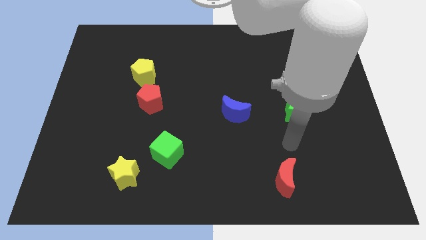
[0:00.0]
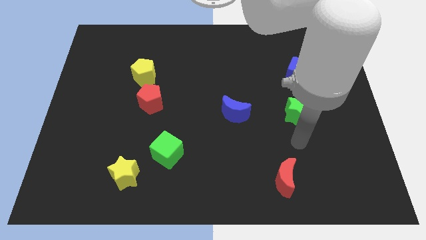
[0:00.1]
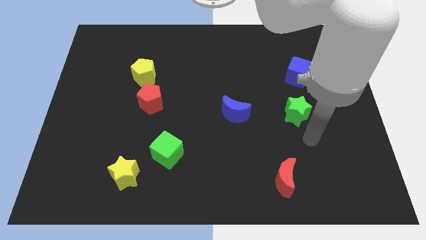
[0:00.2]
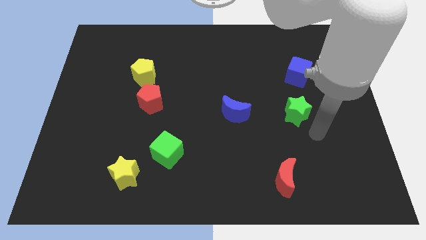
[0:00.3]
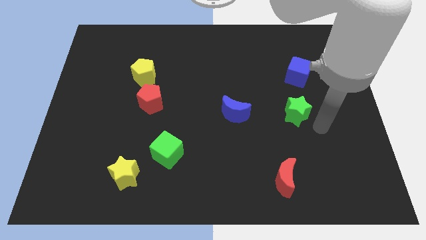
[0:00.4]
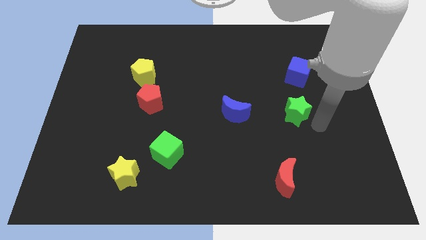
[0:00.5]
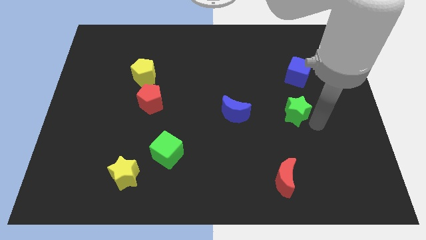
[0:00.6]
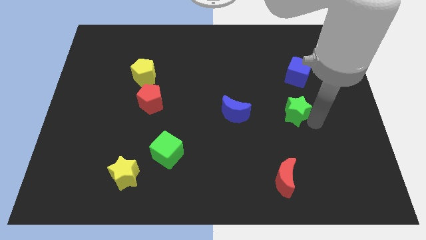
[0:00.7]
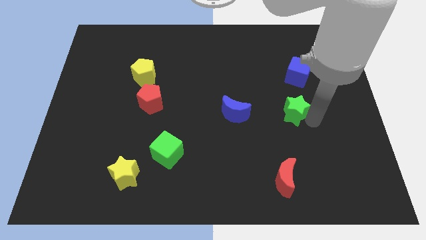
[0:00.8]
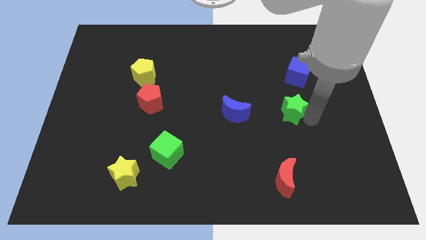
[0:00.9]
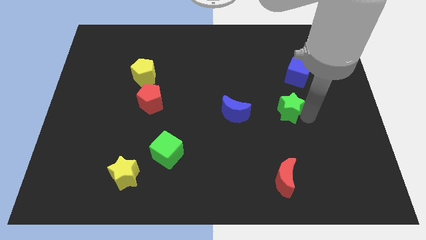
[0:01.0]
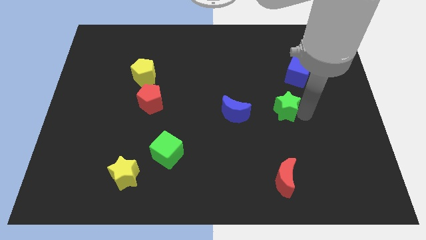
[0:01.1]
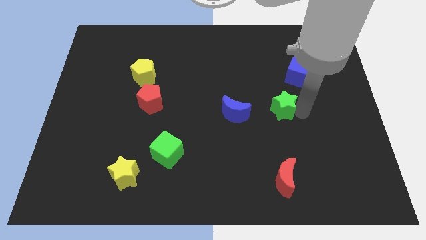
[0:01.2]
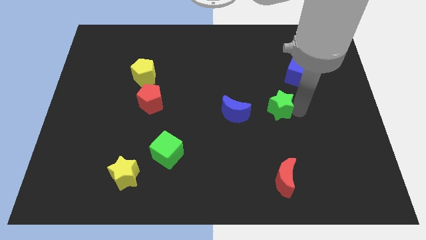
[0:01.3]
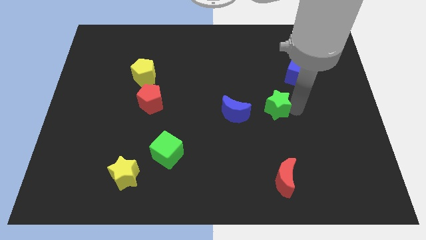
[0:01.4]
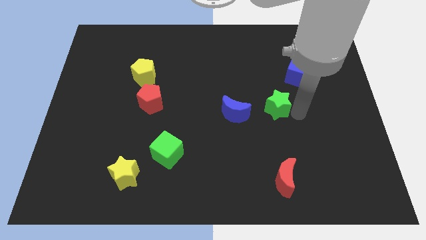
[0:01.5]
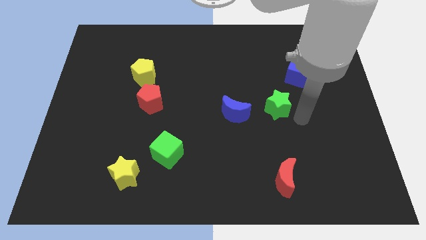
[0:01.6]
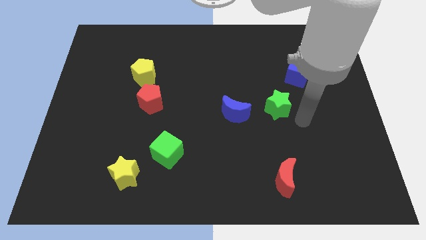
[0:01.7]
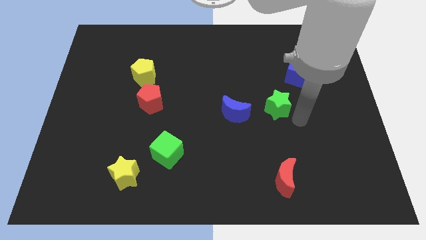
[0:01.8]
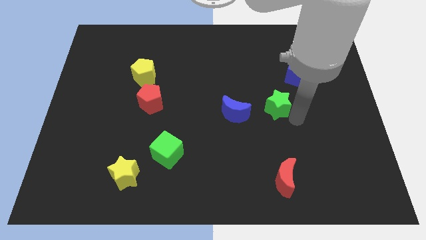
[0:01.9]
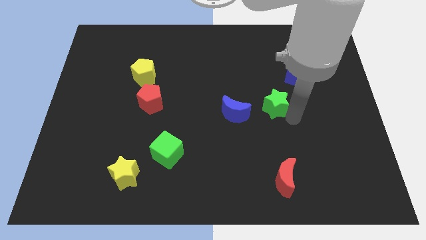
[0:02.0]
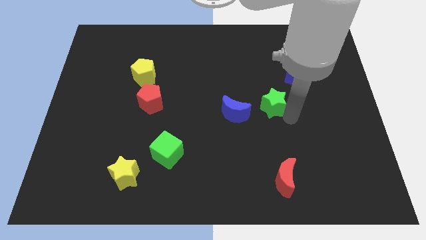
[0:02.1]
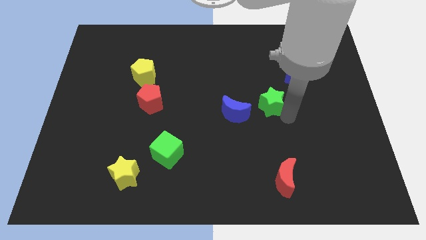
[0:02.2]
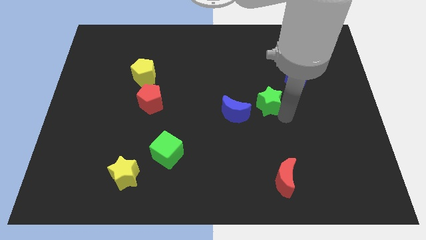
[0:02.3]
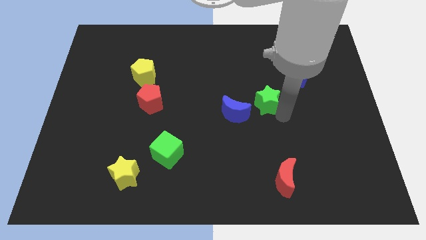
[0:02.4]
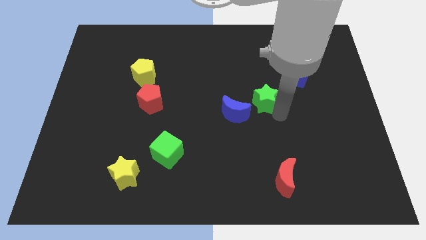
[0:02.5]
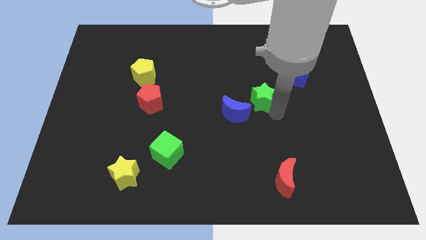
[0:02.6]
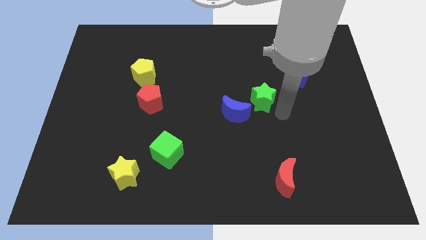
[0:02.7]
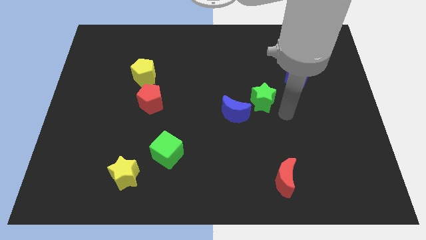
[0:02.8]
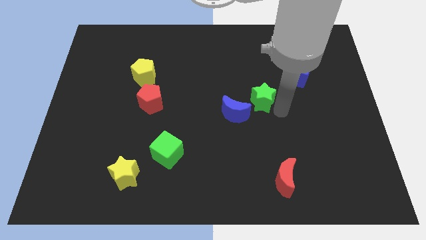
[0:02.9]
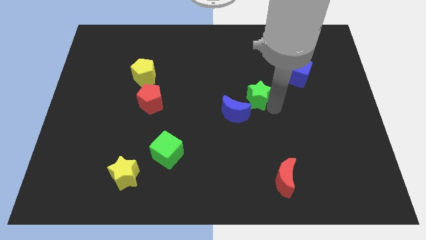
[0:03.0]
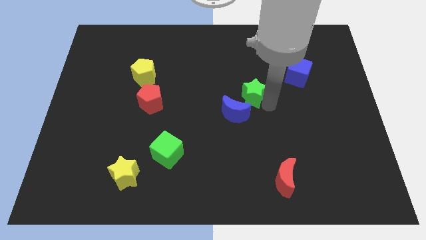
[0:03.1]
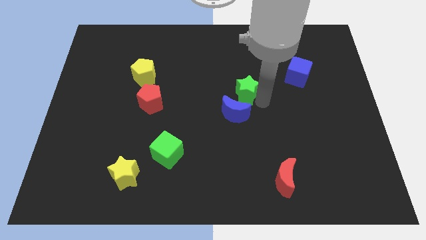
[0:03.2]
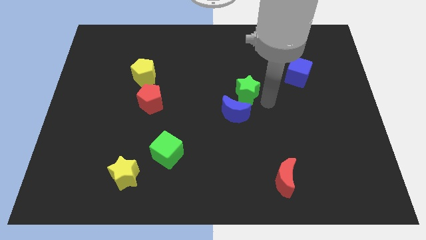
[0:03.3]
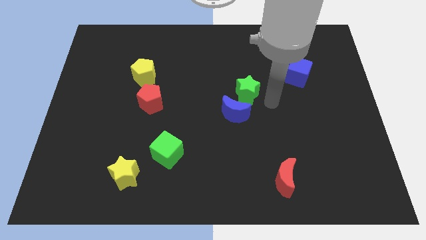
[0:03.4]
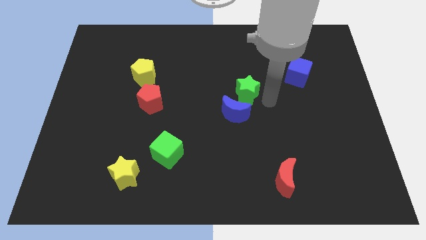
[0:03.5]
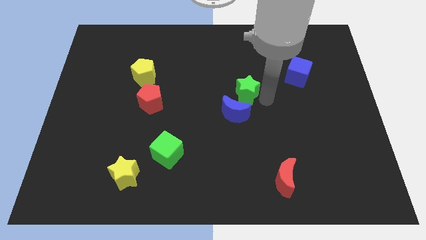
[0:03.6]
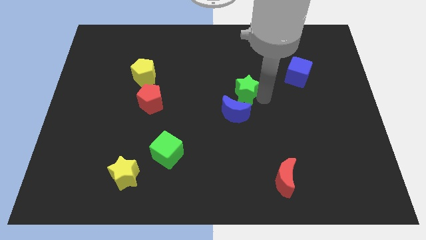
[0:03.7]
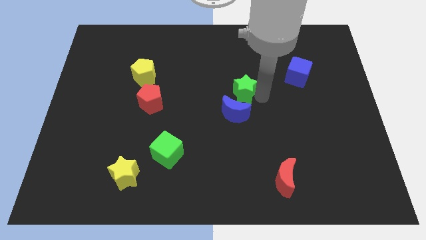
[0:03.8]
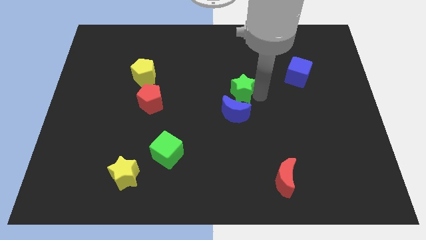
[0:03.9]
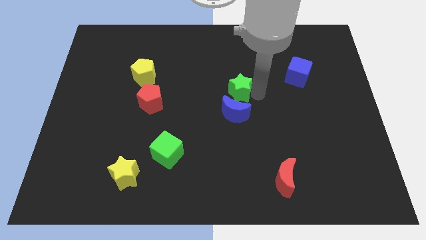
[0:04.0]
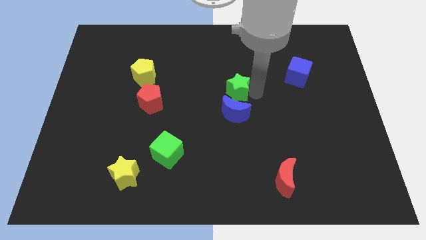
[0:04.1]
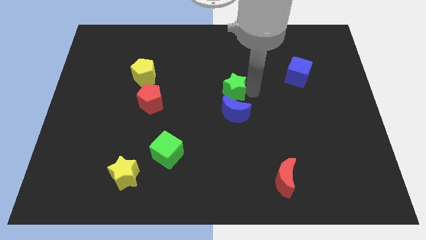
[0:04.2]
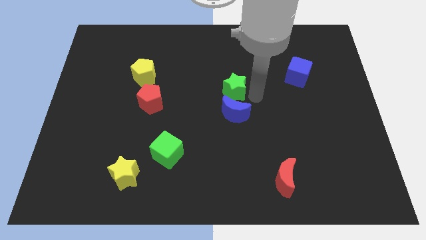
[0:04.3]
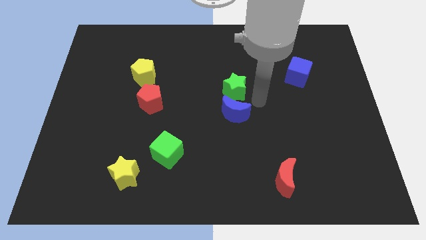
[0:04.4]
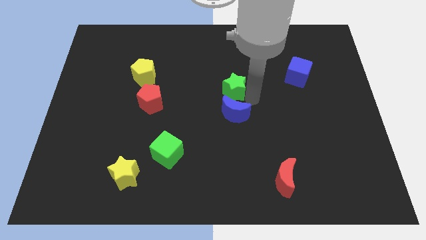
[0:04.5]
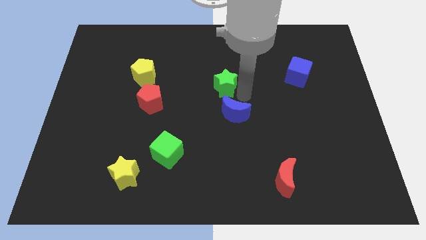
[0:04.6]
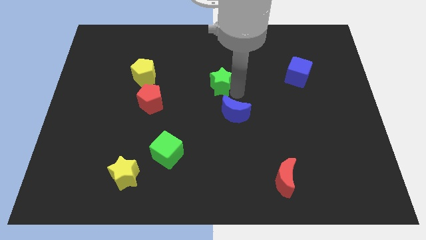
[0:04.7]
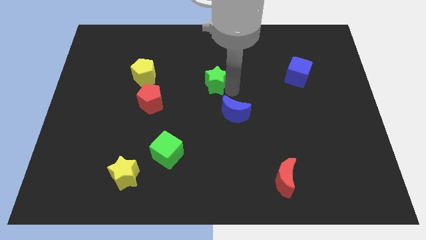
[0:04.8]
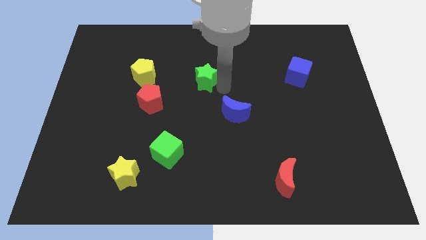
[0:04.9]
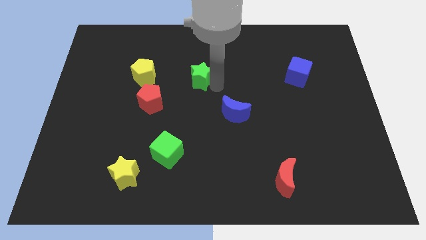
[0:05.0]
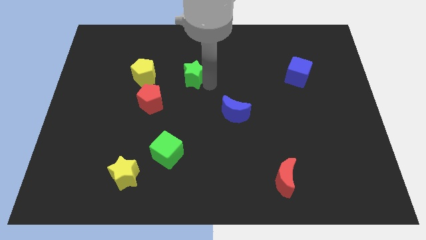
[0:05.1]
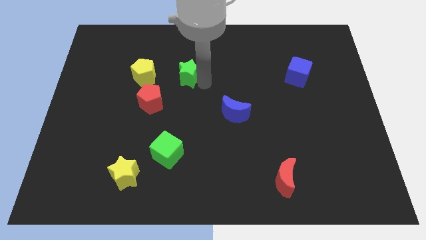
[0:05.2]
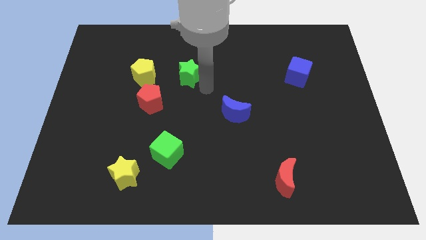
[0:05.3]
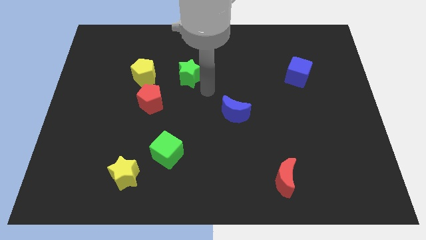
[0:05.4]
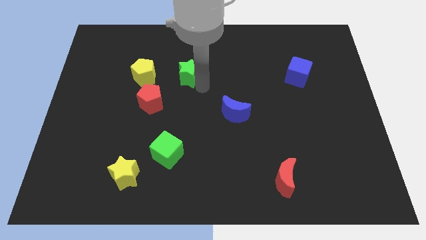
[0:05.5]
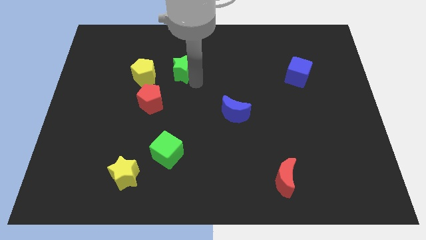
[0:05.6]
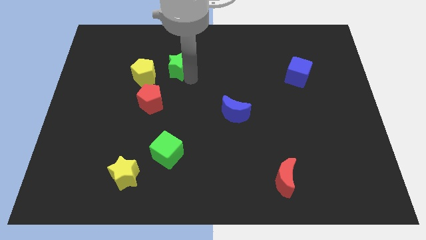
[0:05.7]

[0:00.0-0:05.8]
move the green star to the top right side of the yellow pentagon

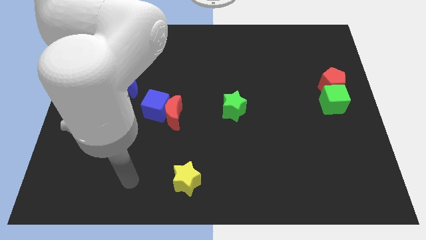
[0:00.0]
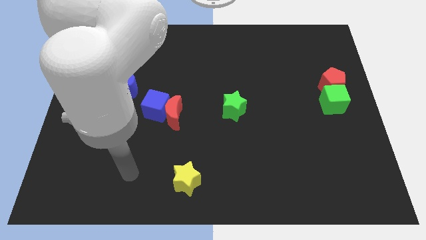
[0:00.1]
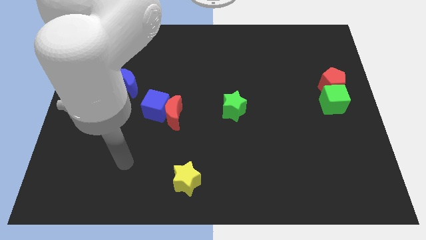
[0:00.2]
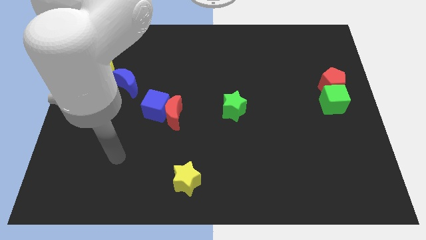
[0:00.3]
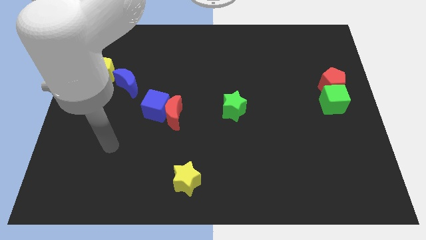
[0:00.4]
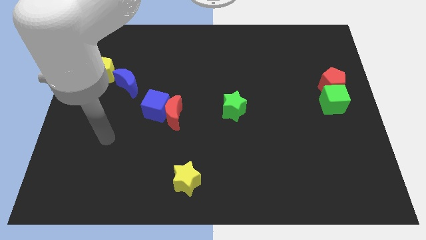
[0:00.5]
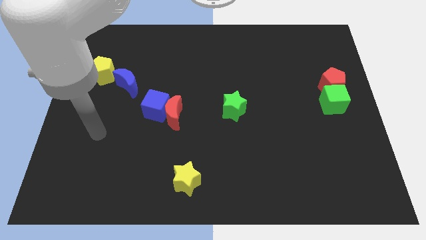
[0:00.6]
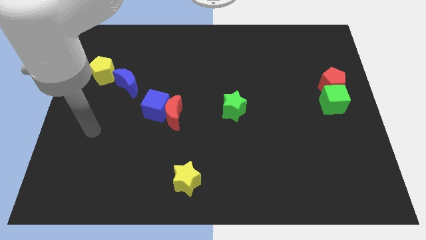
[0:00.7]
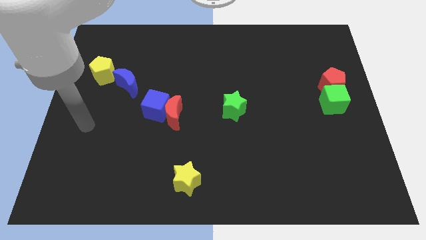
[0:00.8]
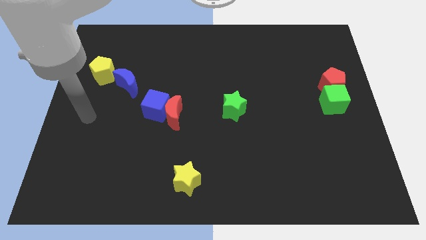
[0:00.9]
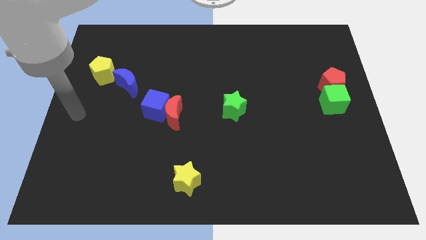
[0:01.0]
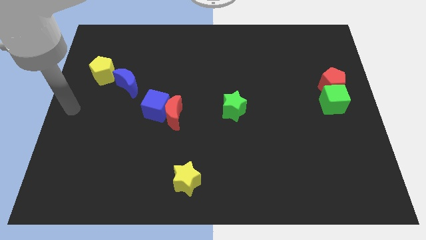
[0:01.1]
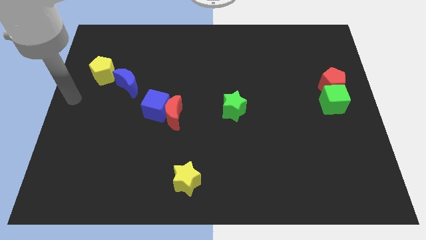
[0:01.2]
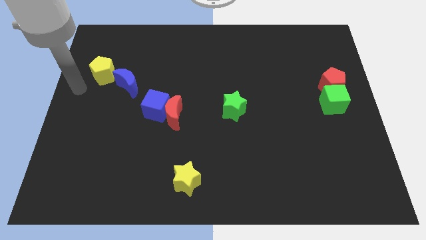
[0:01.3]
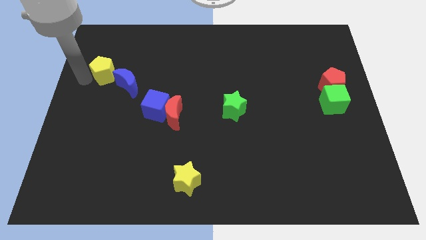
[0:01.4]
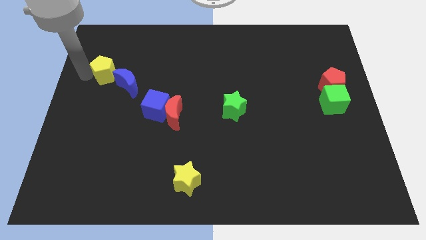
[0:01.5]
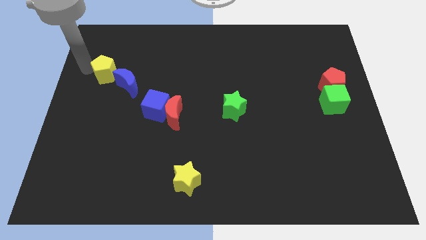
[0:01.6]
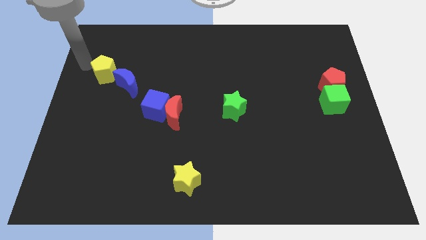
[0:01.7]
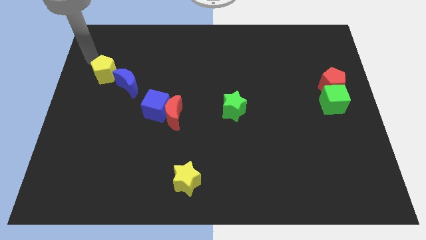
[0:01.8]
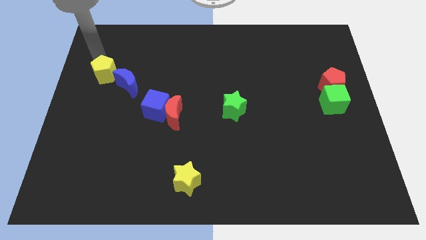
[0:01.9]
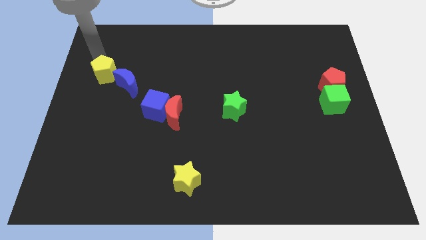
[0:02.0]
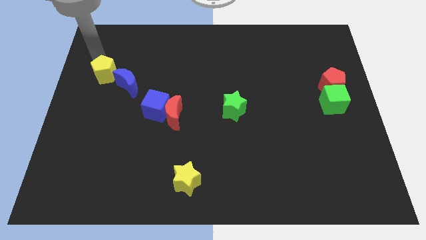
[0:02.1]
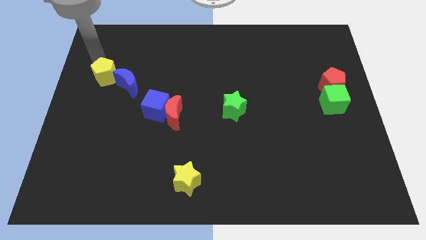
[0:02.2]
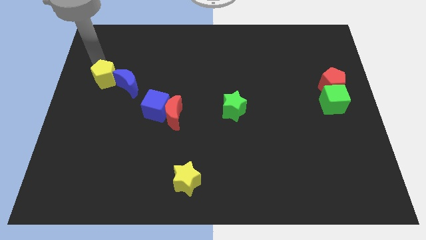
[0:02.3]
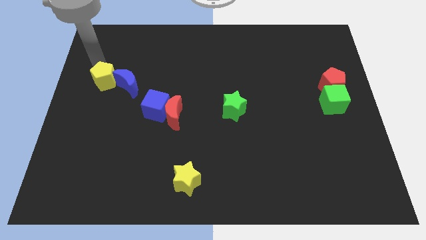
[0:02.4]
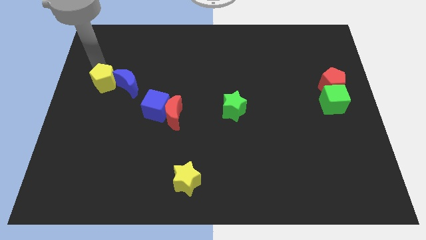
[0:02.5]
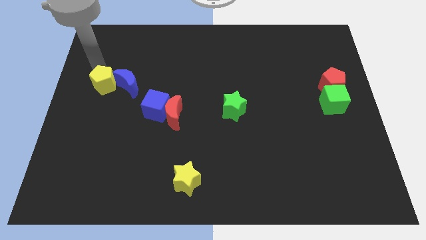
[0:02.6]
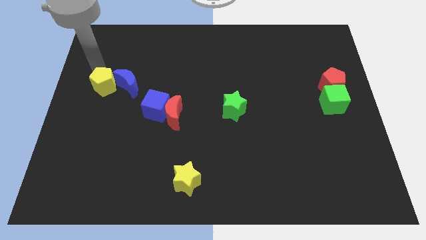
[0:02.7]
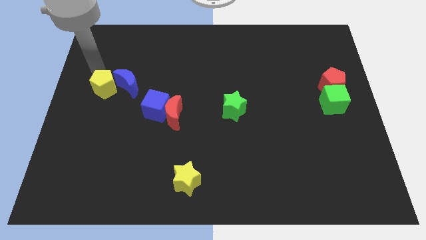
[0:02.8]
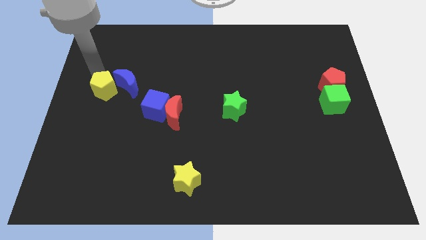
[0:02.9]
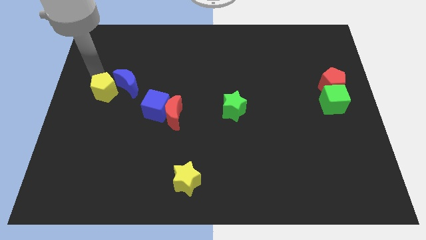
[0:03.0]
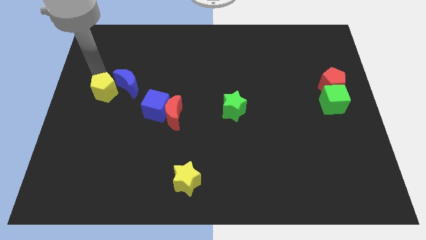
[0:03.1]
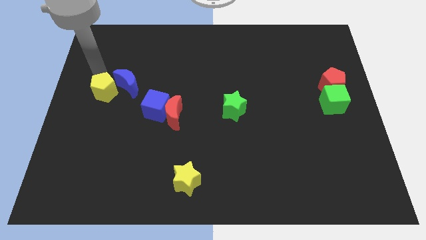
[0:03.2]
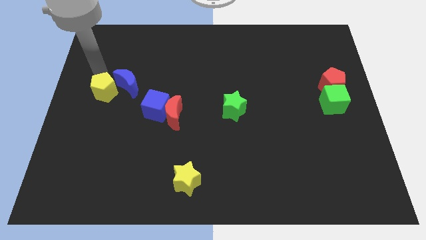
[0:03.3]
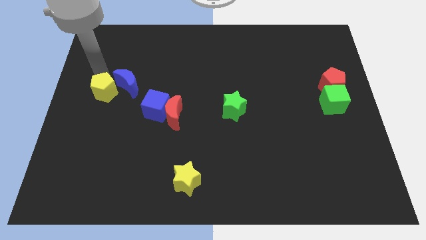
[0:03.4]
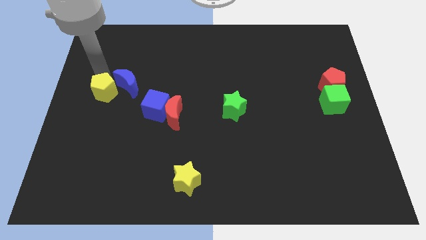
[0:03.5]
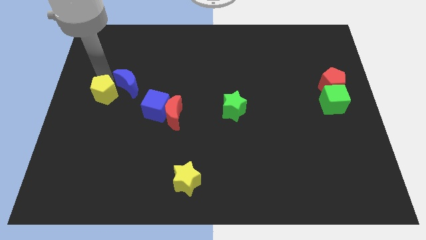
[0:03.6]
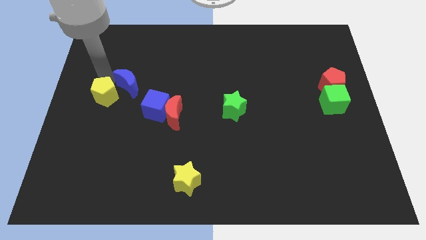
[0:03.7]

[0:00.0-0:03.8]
slide the yellow pentagon left of the blue cube
